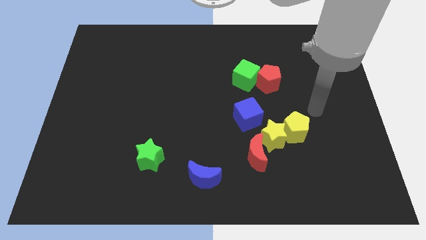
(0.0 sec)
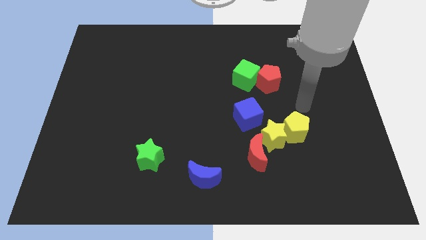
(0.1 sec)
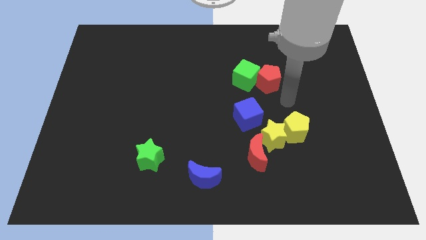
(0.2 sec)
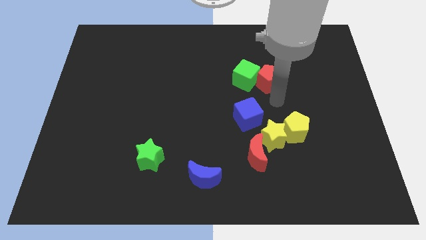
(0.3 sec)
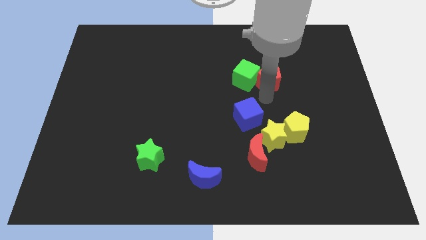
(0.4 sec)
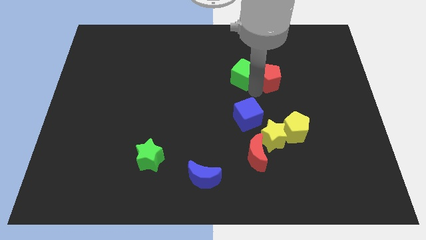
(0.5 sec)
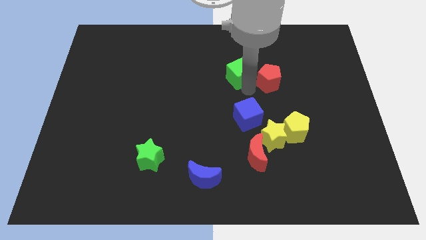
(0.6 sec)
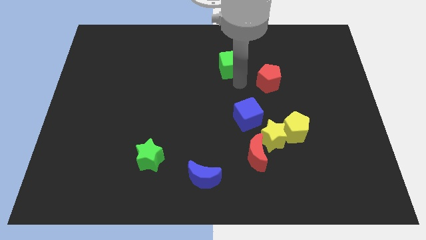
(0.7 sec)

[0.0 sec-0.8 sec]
pull the red pentagon apart from the green cube

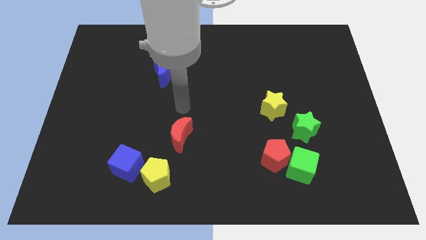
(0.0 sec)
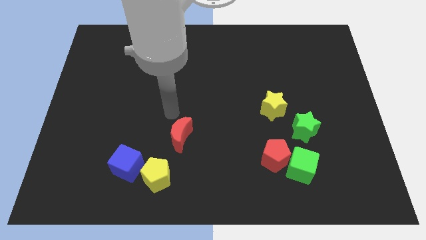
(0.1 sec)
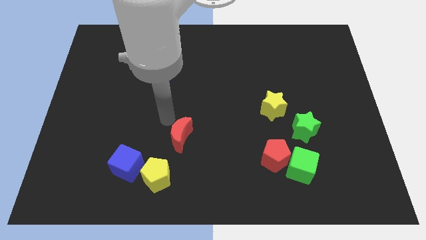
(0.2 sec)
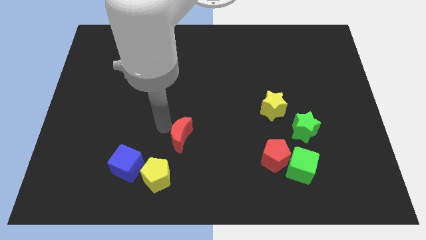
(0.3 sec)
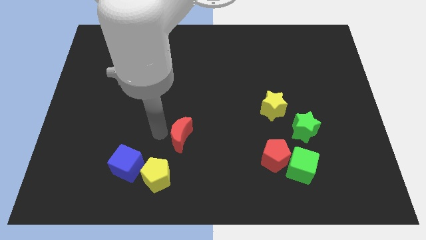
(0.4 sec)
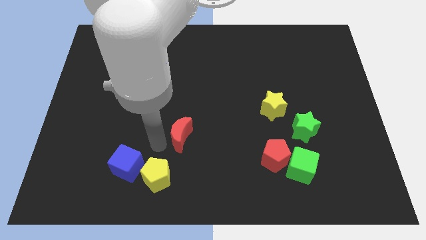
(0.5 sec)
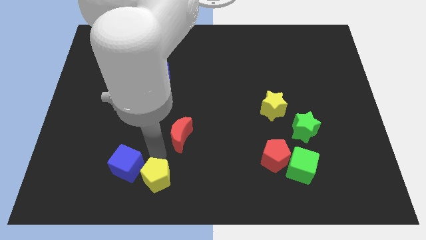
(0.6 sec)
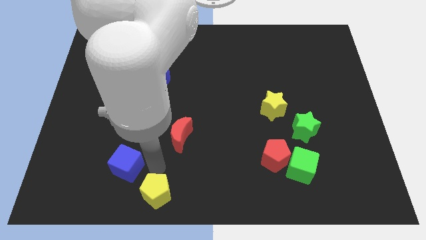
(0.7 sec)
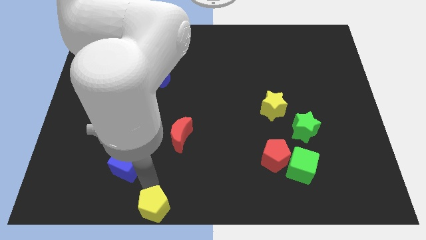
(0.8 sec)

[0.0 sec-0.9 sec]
separate the blue cube from the yellow pentagon

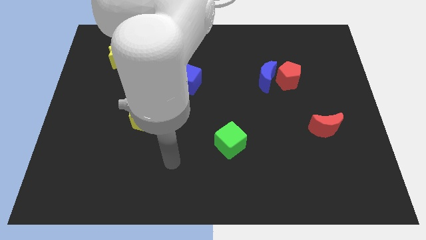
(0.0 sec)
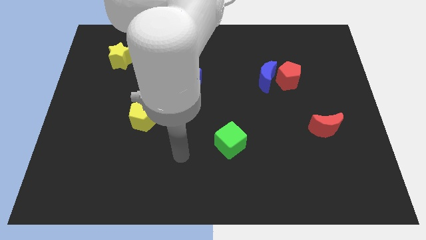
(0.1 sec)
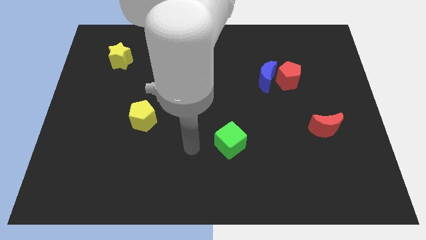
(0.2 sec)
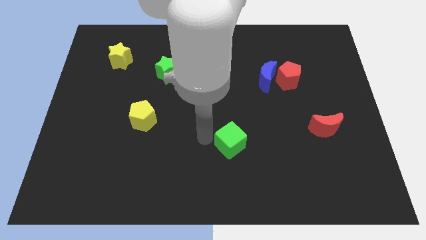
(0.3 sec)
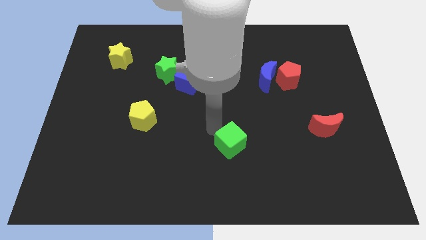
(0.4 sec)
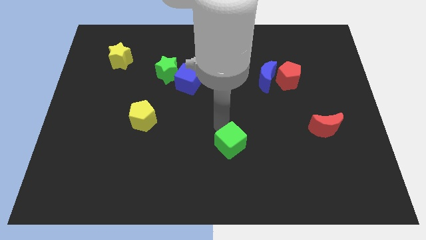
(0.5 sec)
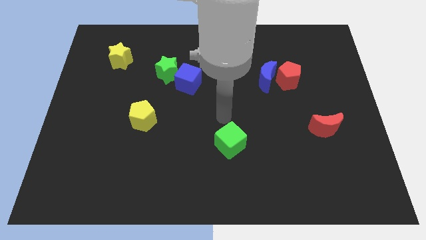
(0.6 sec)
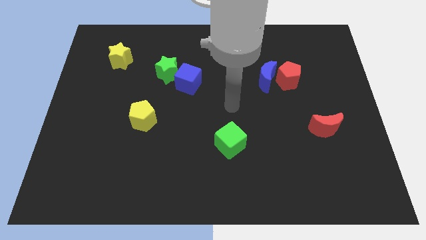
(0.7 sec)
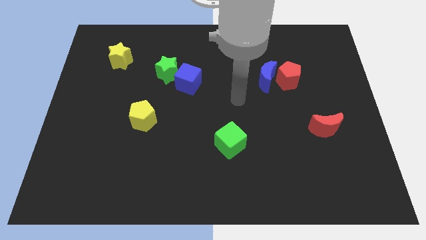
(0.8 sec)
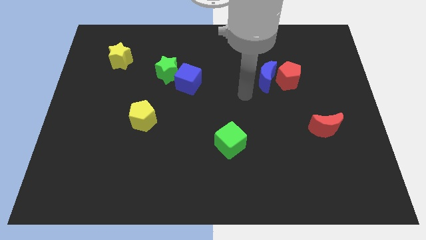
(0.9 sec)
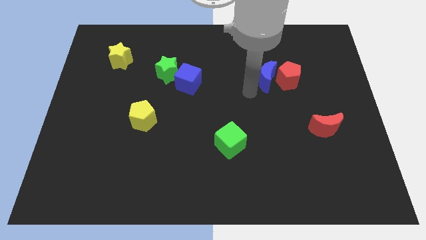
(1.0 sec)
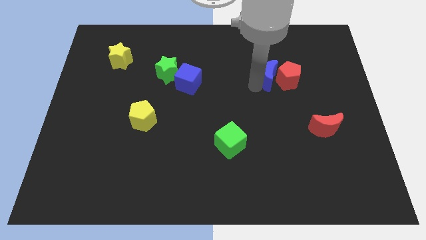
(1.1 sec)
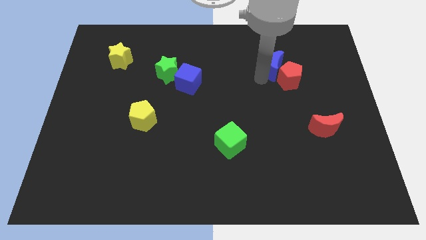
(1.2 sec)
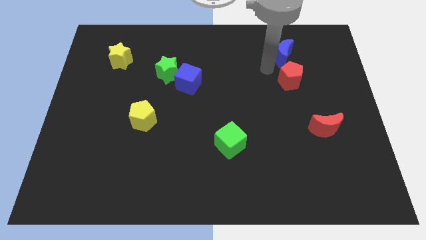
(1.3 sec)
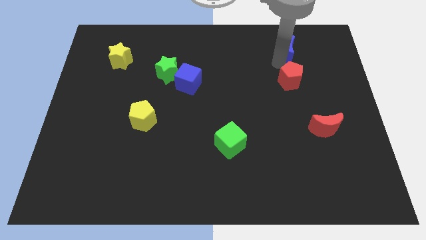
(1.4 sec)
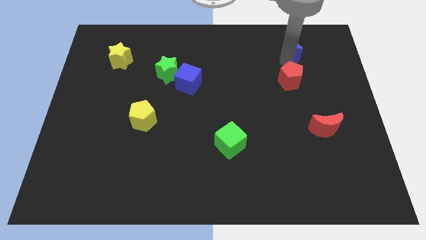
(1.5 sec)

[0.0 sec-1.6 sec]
pull the red pentagon apart from the blue moon

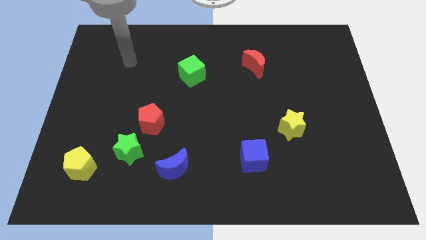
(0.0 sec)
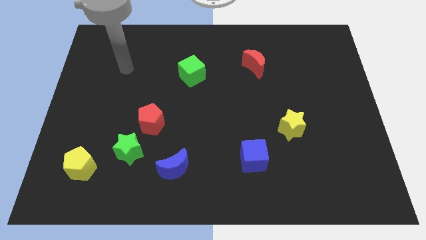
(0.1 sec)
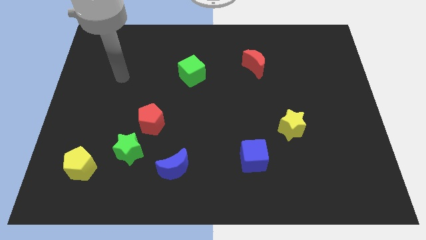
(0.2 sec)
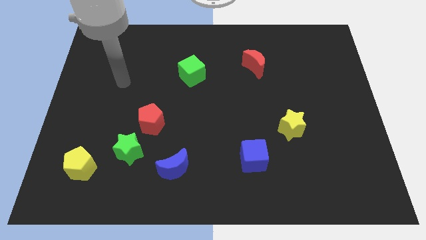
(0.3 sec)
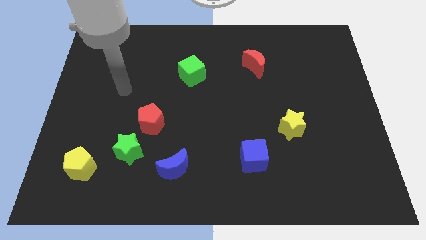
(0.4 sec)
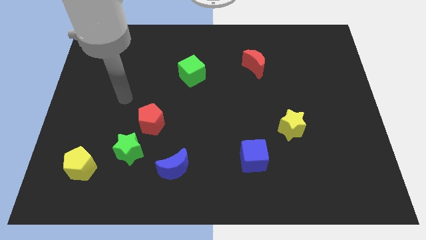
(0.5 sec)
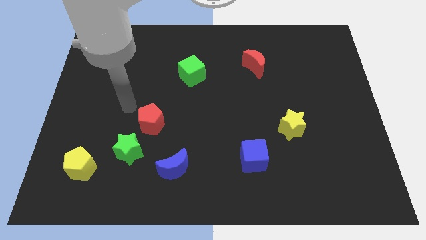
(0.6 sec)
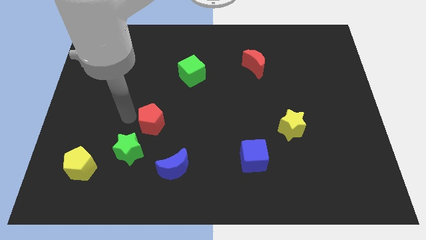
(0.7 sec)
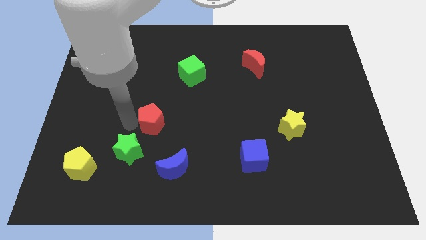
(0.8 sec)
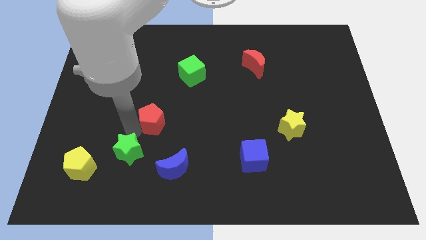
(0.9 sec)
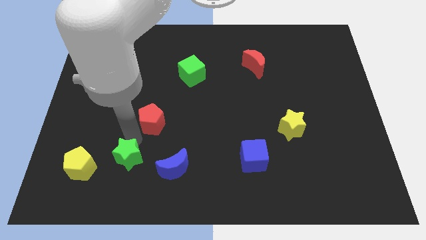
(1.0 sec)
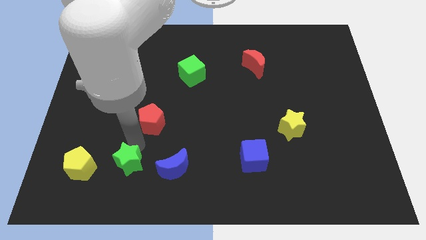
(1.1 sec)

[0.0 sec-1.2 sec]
move the red pentagon away from the green star

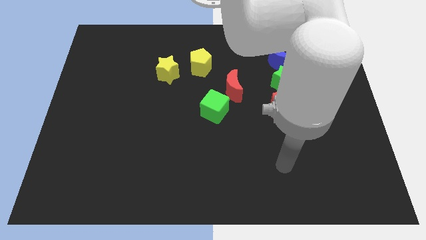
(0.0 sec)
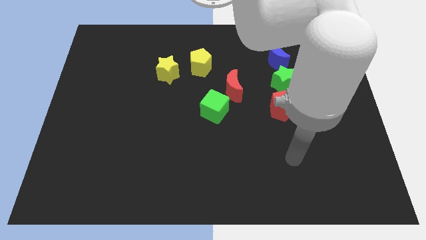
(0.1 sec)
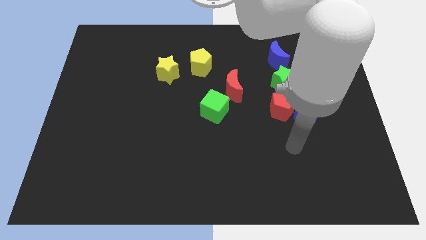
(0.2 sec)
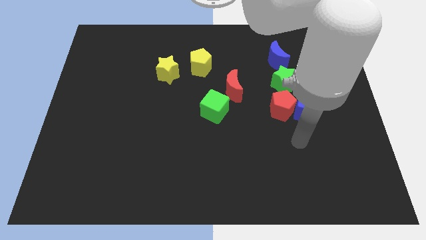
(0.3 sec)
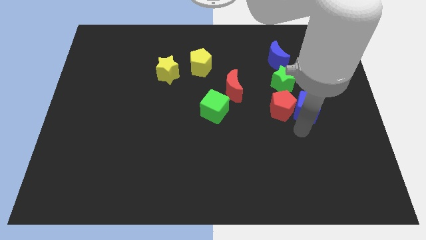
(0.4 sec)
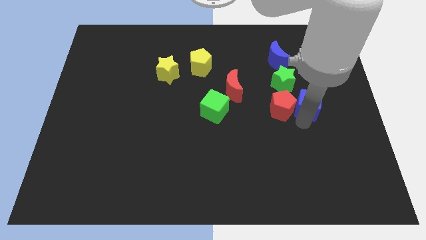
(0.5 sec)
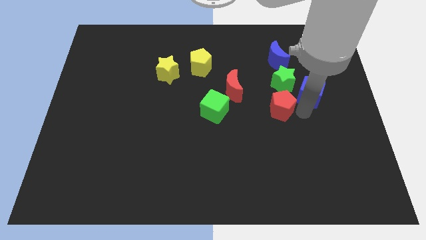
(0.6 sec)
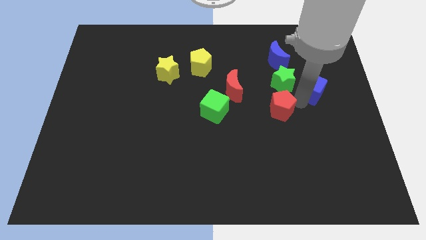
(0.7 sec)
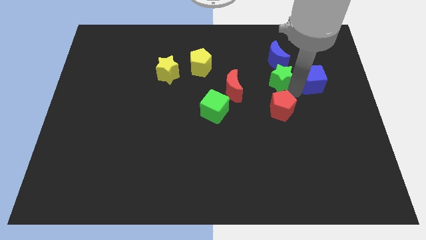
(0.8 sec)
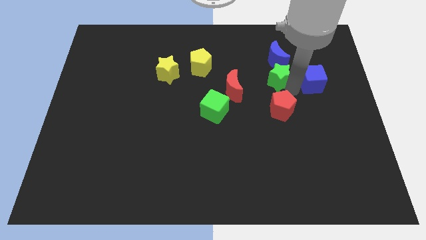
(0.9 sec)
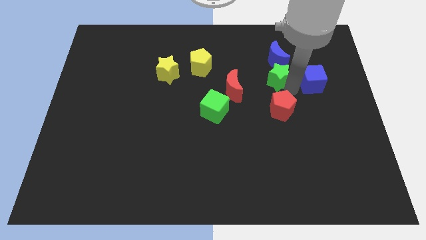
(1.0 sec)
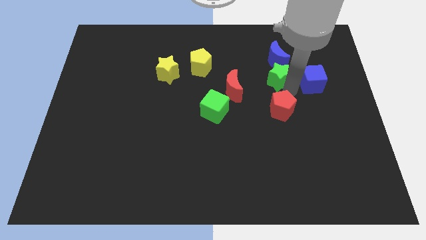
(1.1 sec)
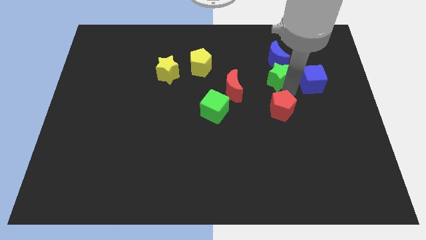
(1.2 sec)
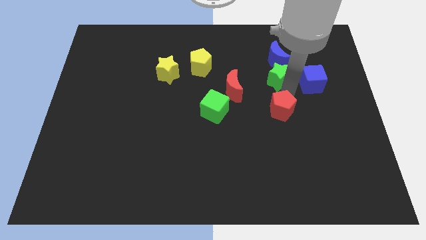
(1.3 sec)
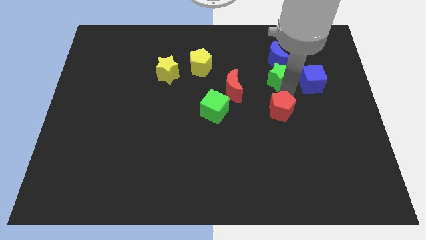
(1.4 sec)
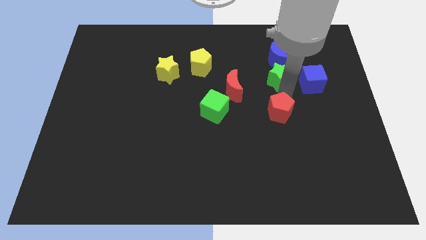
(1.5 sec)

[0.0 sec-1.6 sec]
pull the red pentagon apart from the blue cube and green star

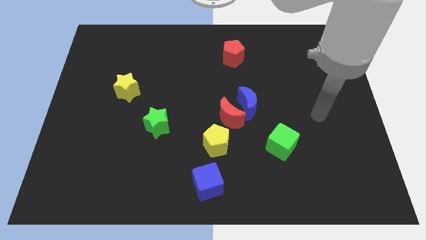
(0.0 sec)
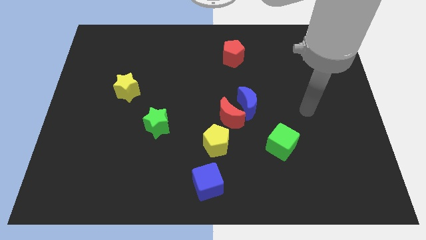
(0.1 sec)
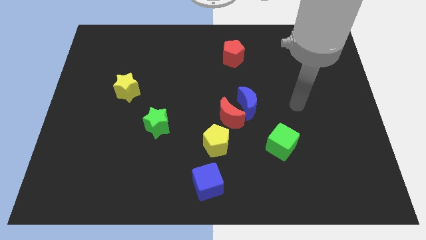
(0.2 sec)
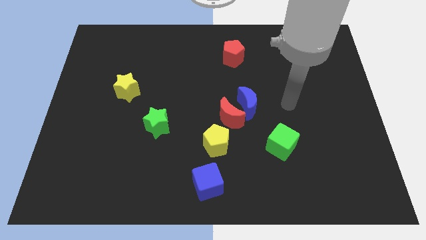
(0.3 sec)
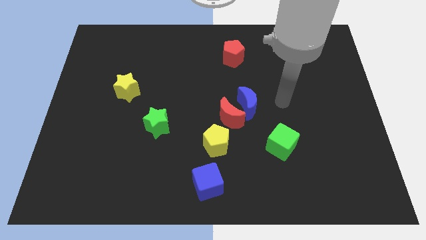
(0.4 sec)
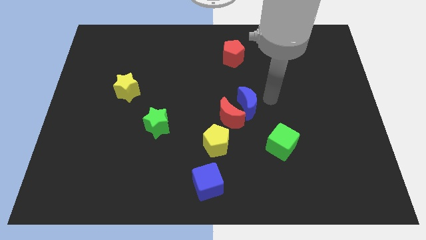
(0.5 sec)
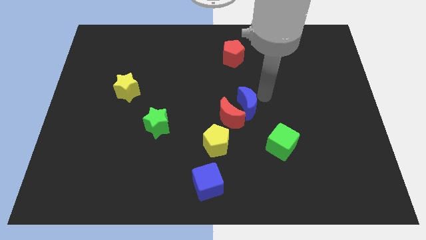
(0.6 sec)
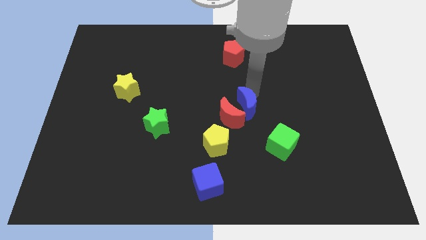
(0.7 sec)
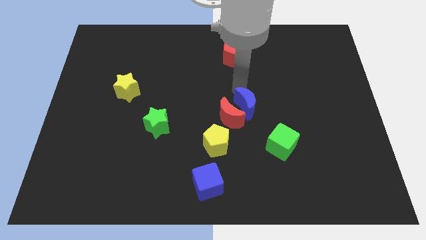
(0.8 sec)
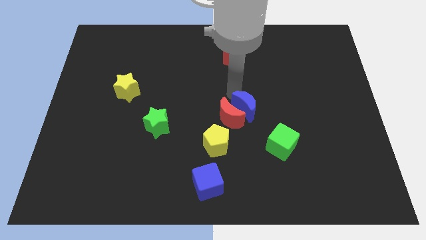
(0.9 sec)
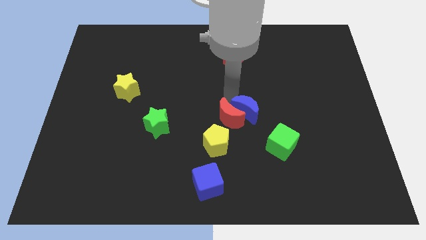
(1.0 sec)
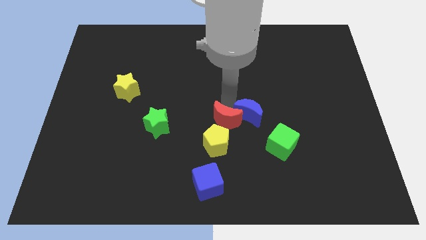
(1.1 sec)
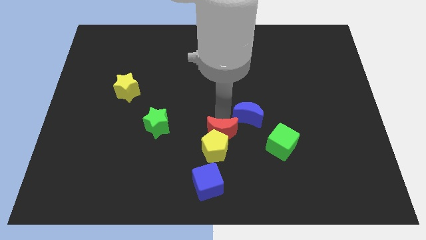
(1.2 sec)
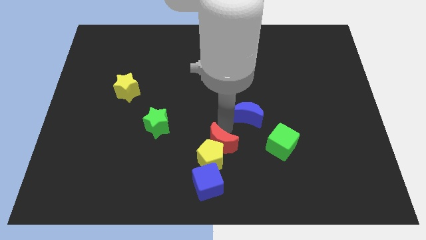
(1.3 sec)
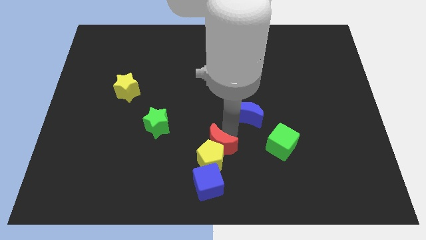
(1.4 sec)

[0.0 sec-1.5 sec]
pull the blue moon apart from the red moon

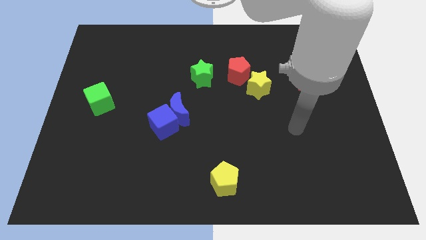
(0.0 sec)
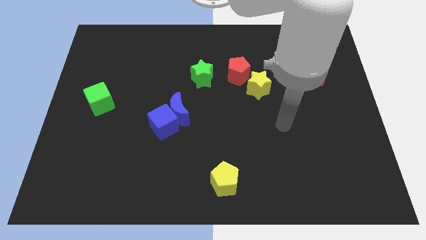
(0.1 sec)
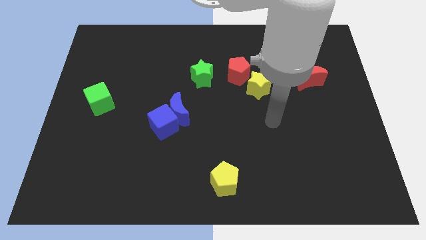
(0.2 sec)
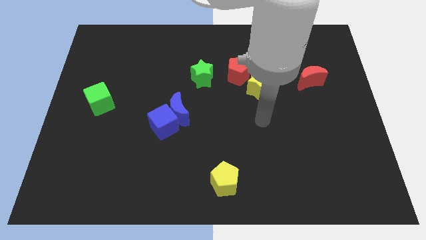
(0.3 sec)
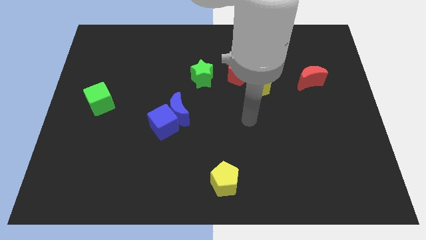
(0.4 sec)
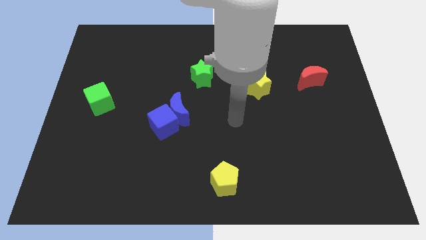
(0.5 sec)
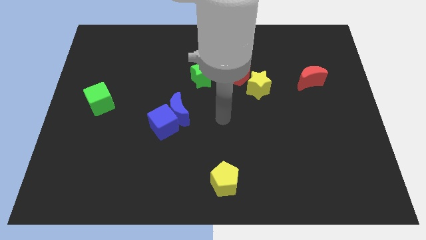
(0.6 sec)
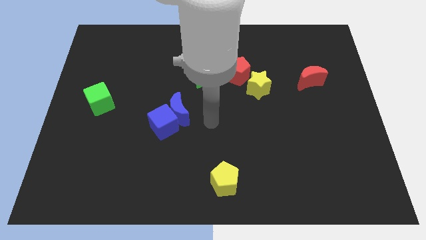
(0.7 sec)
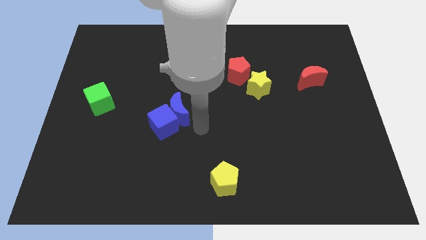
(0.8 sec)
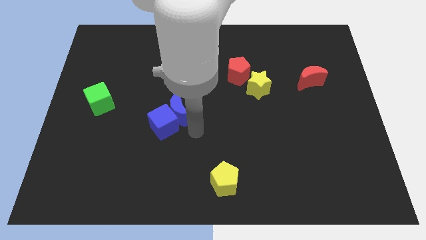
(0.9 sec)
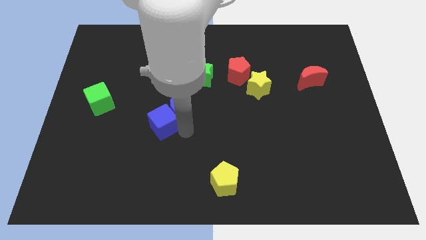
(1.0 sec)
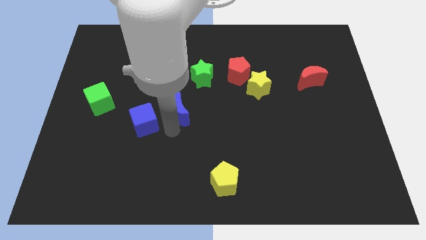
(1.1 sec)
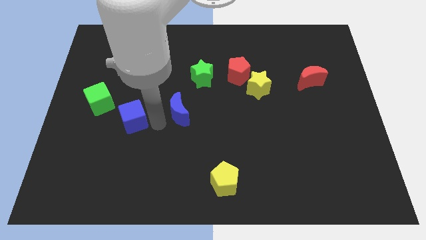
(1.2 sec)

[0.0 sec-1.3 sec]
pull the blue moon apart from the blue cube

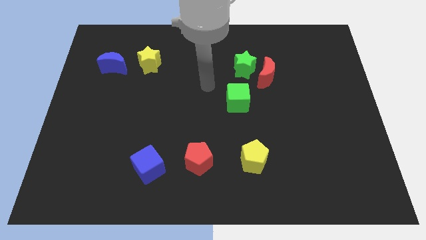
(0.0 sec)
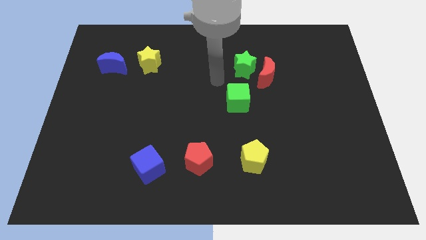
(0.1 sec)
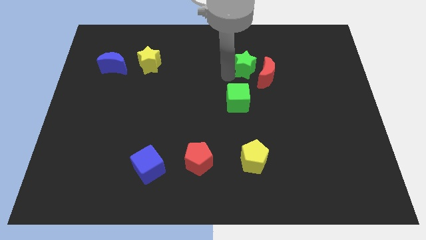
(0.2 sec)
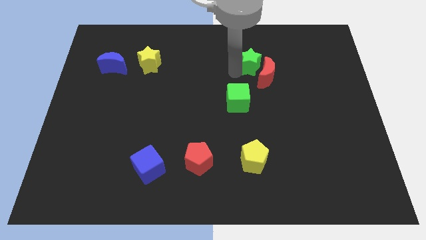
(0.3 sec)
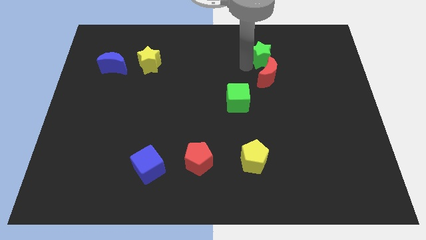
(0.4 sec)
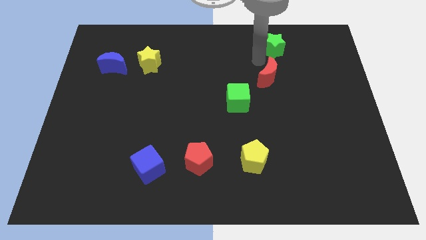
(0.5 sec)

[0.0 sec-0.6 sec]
separate the red moon from the green star
